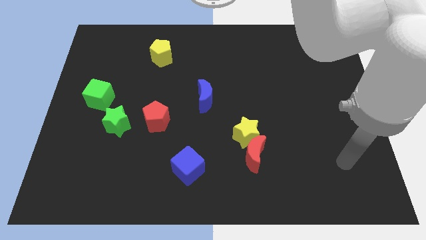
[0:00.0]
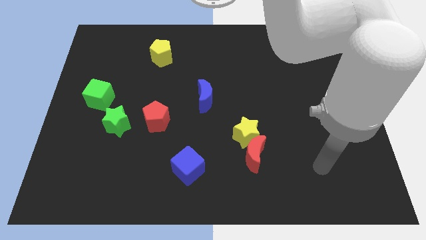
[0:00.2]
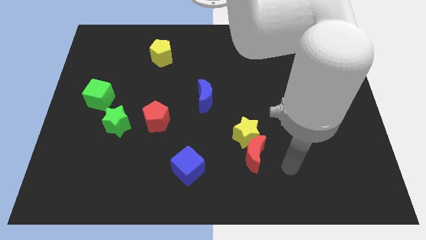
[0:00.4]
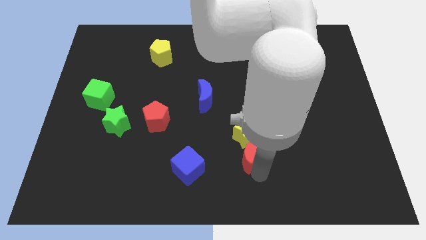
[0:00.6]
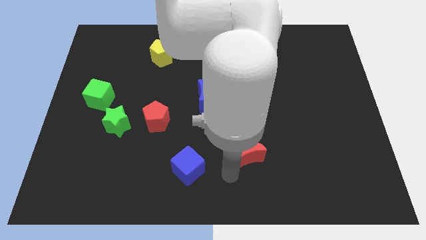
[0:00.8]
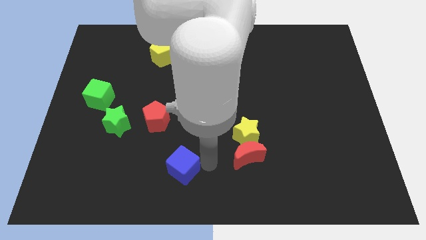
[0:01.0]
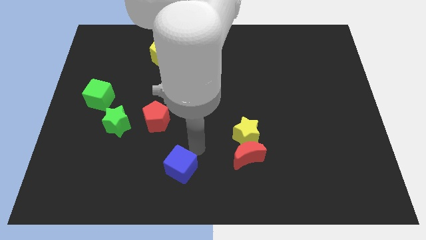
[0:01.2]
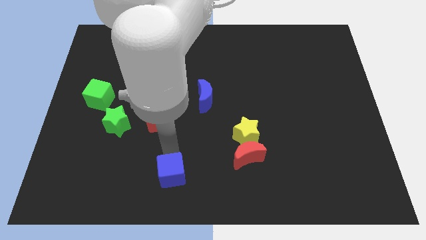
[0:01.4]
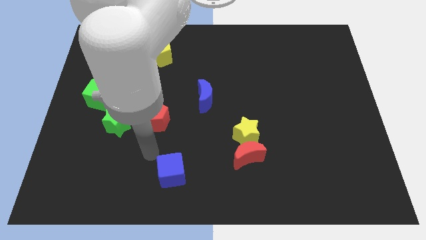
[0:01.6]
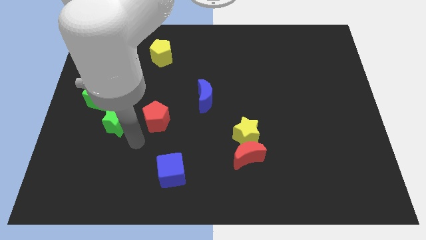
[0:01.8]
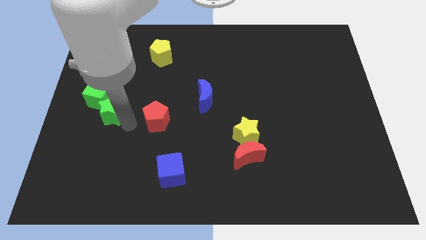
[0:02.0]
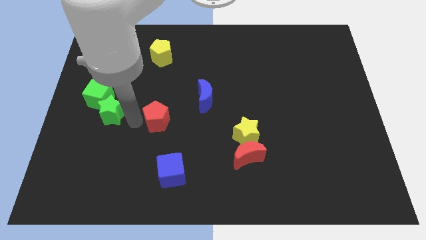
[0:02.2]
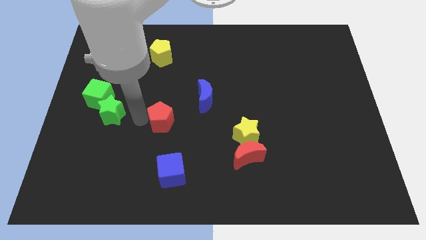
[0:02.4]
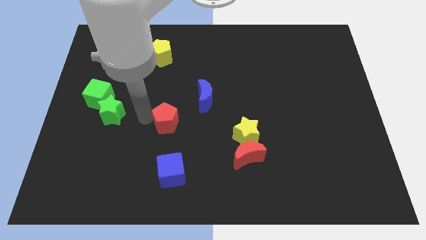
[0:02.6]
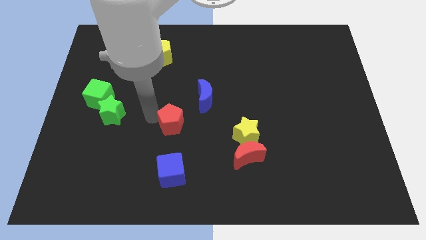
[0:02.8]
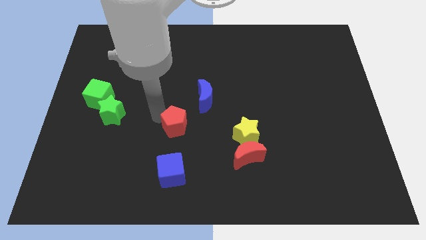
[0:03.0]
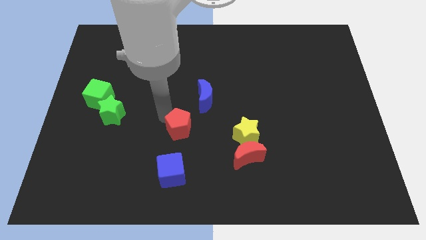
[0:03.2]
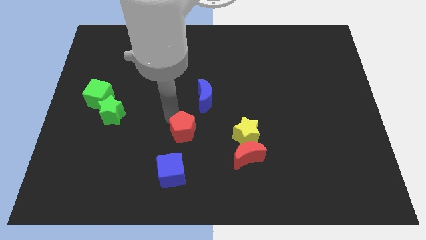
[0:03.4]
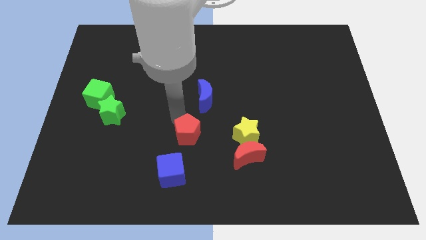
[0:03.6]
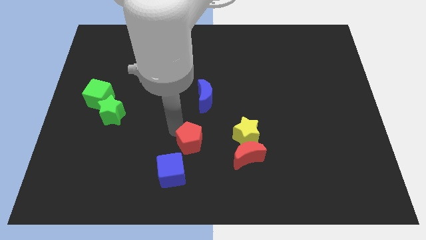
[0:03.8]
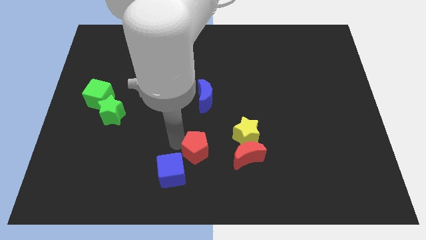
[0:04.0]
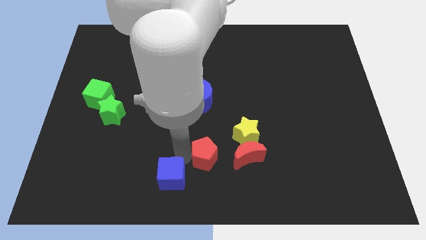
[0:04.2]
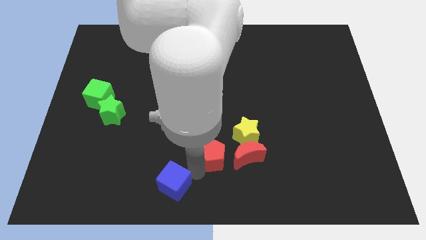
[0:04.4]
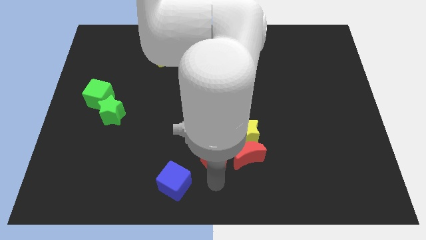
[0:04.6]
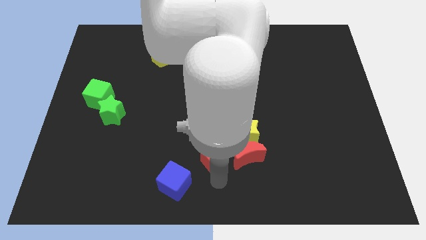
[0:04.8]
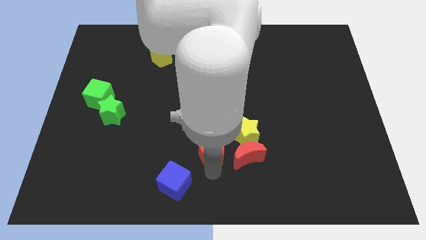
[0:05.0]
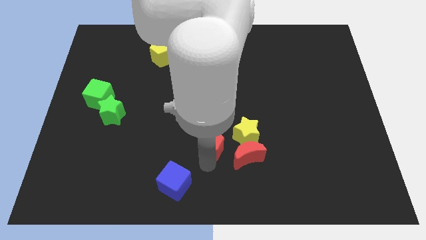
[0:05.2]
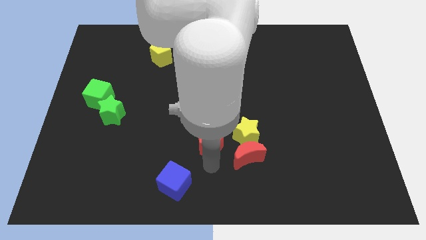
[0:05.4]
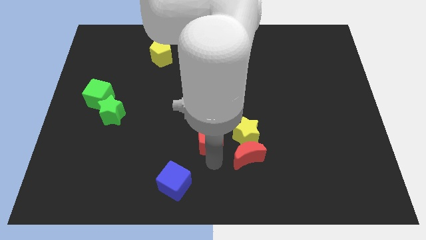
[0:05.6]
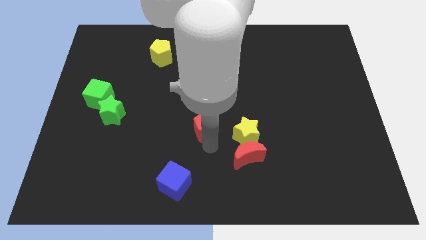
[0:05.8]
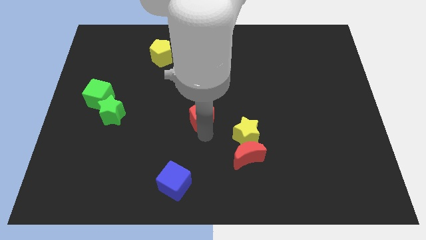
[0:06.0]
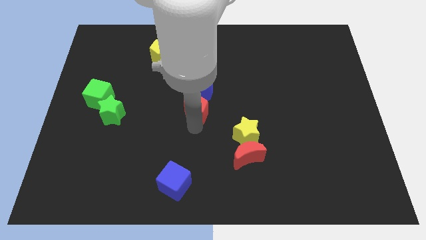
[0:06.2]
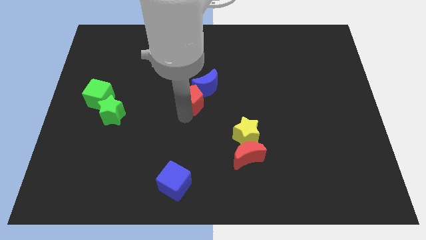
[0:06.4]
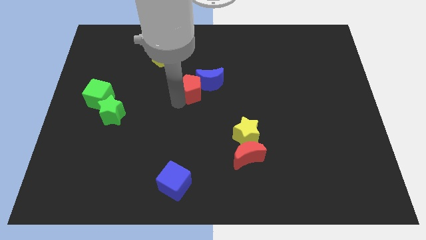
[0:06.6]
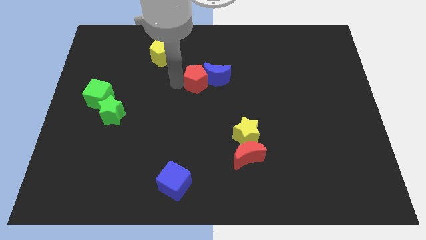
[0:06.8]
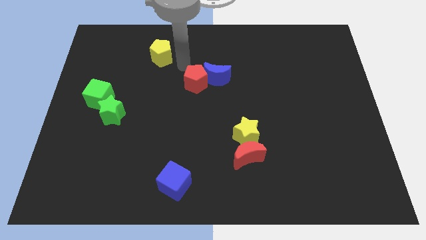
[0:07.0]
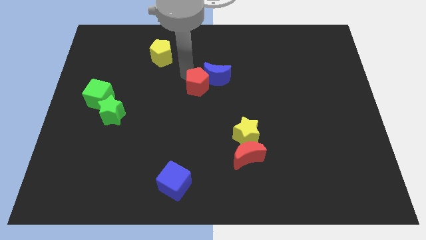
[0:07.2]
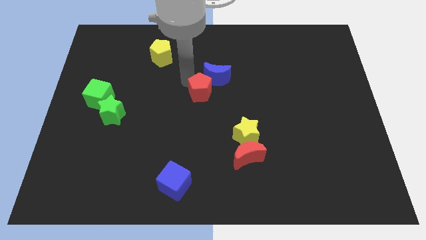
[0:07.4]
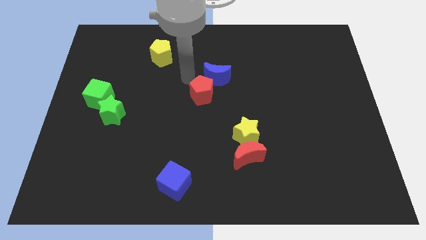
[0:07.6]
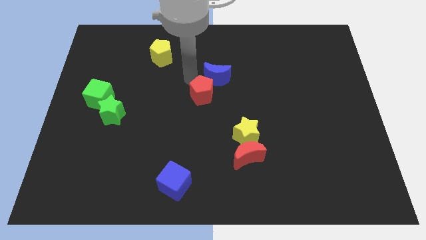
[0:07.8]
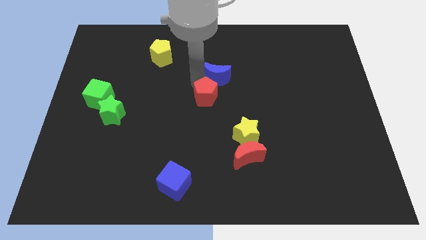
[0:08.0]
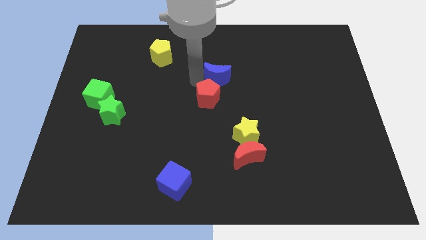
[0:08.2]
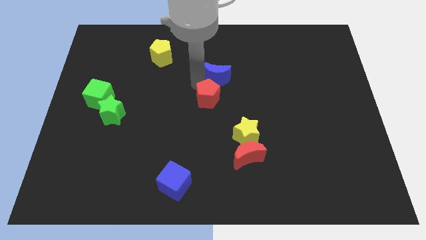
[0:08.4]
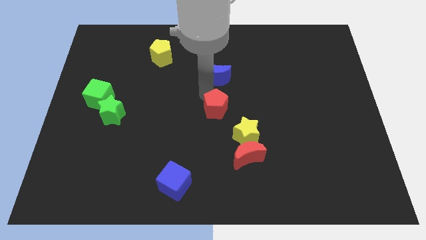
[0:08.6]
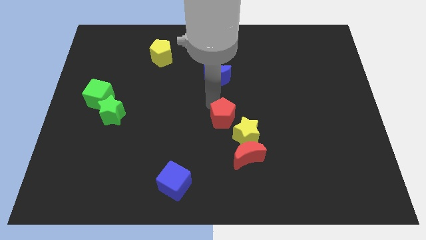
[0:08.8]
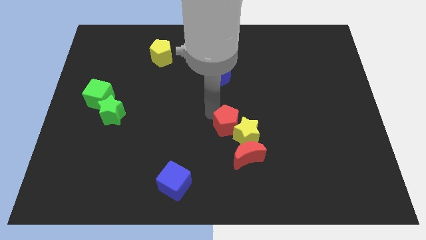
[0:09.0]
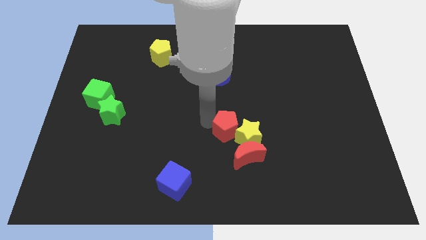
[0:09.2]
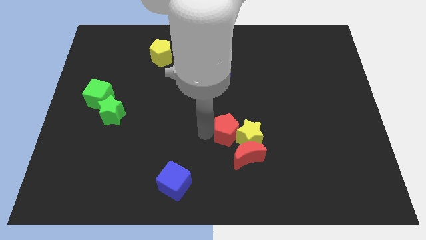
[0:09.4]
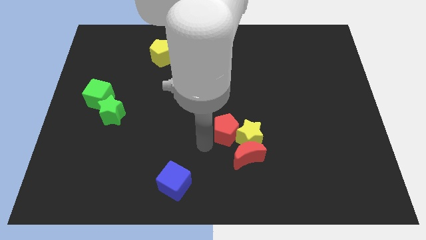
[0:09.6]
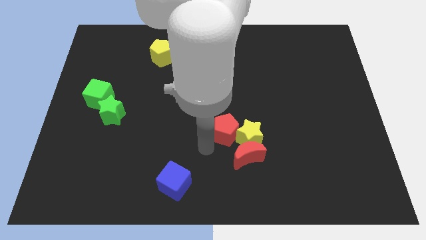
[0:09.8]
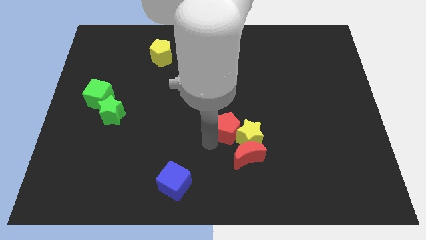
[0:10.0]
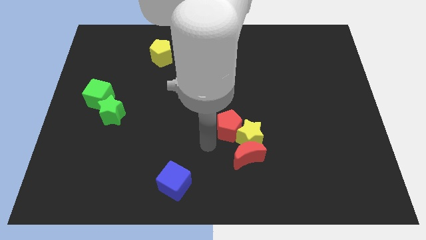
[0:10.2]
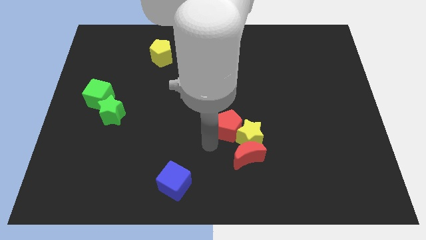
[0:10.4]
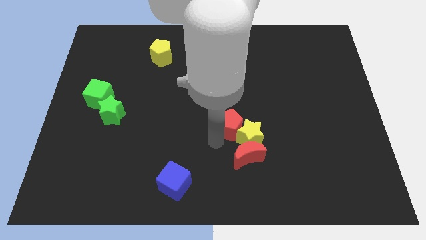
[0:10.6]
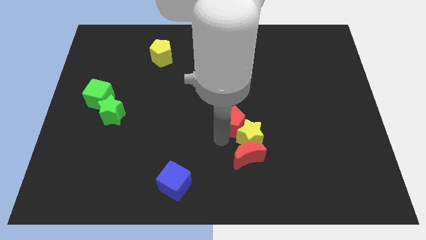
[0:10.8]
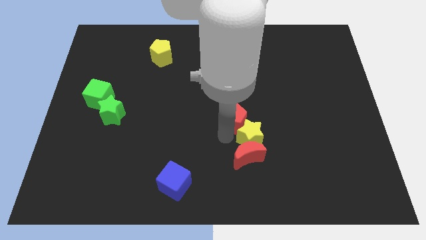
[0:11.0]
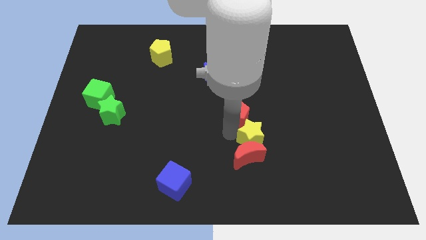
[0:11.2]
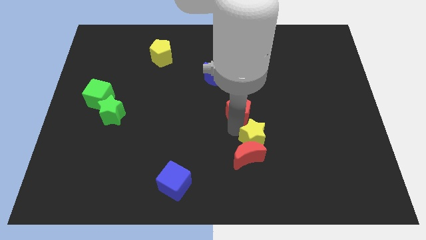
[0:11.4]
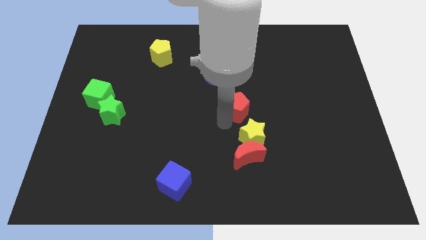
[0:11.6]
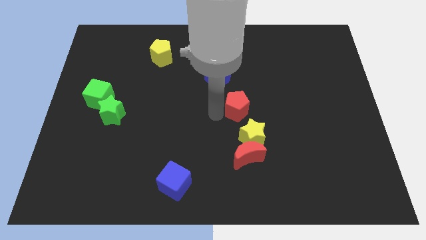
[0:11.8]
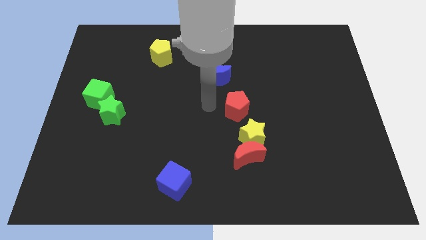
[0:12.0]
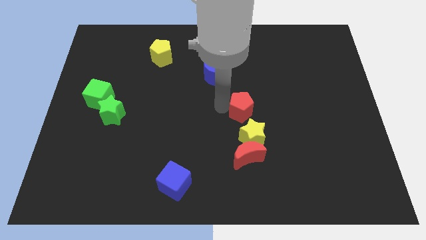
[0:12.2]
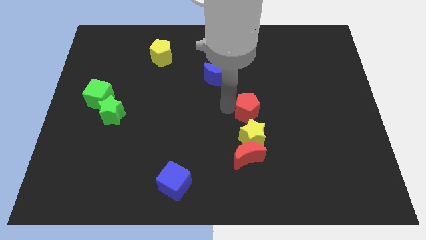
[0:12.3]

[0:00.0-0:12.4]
push the red pentagon right

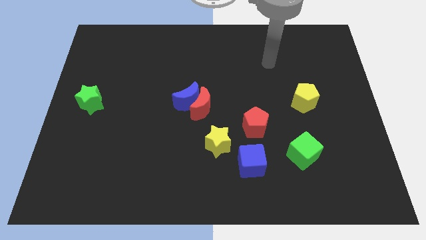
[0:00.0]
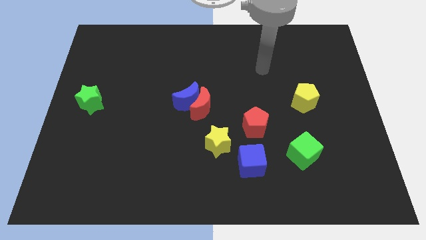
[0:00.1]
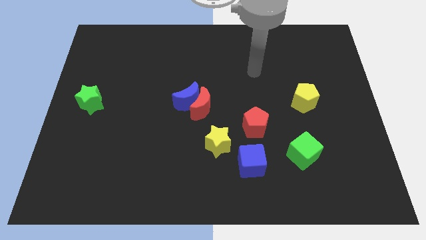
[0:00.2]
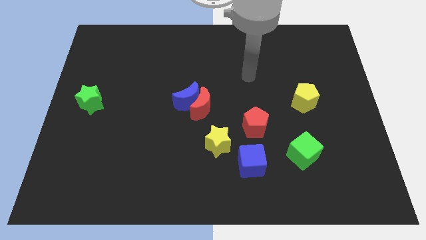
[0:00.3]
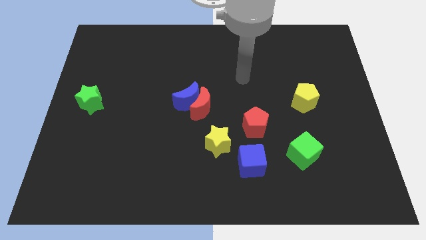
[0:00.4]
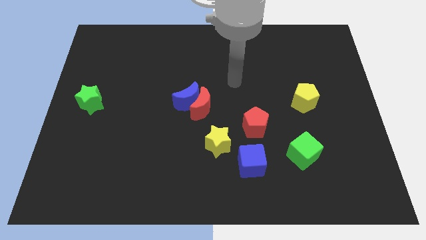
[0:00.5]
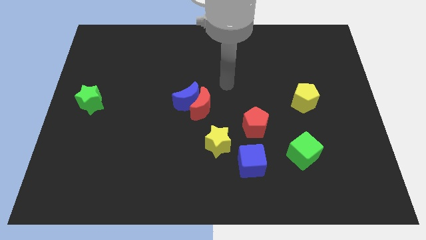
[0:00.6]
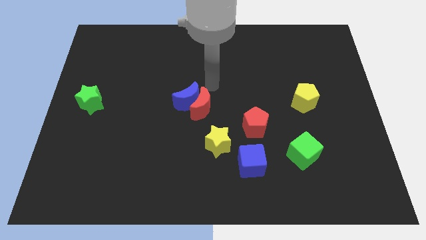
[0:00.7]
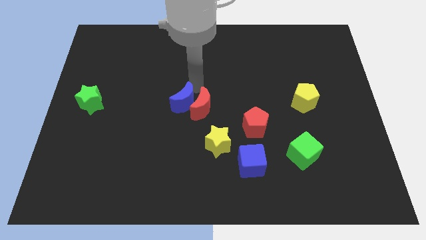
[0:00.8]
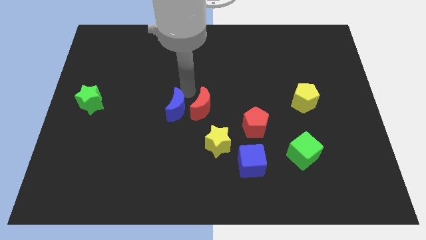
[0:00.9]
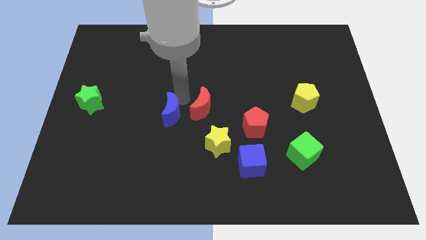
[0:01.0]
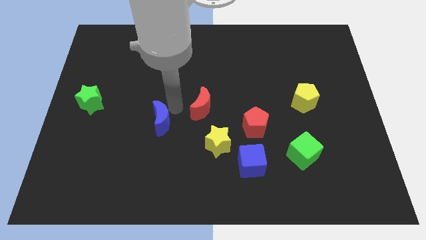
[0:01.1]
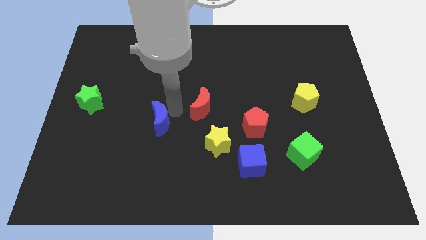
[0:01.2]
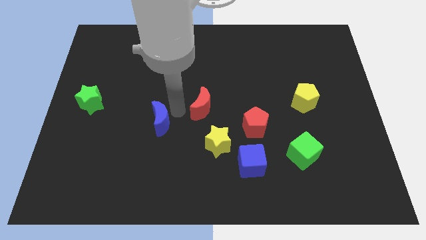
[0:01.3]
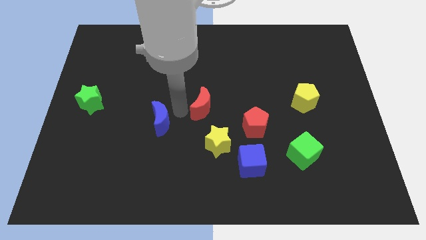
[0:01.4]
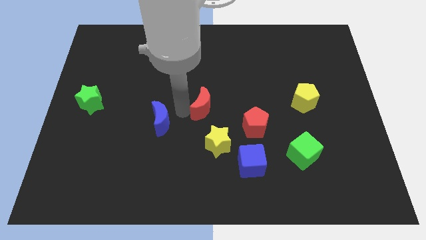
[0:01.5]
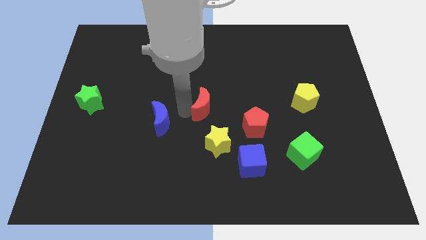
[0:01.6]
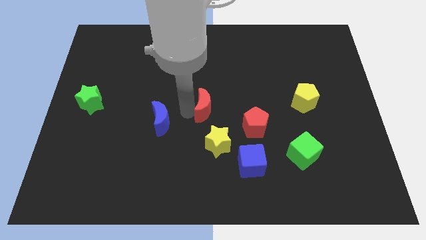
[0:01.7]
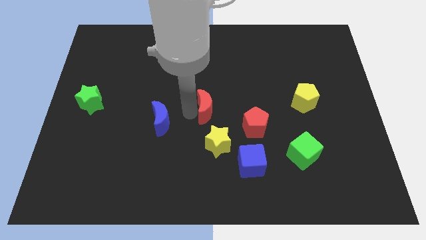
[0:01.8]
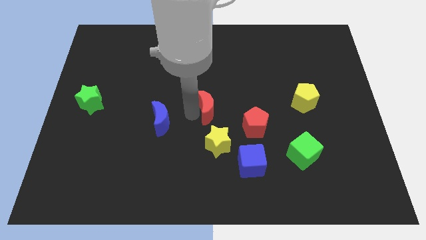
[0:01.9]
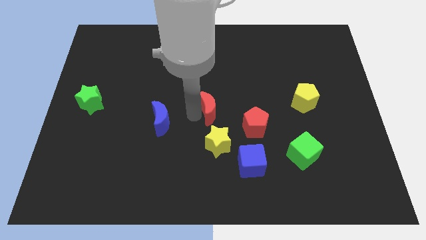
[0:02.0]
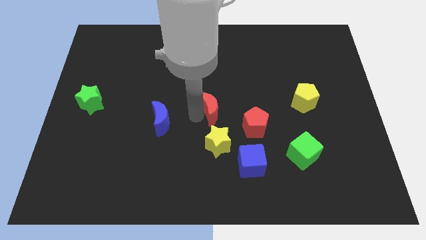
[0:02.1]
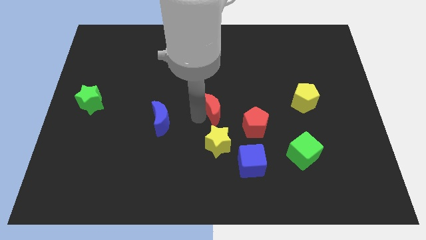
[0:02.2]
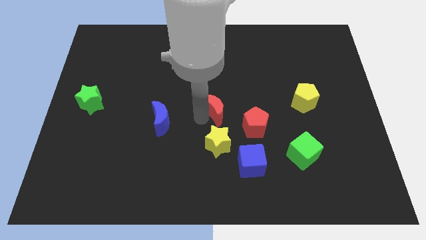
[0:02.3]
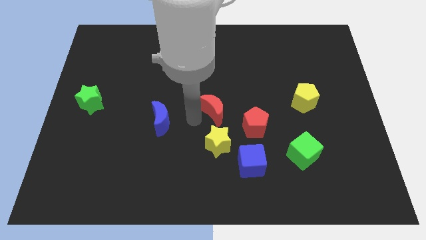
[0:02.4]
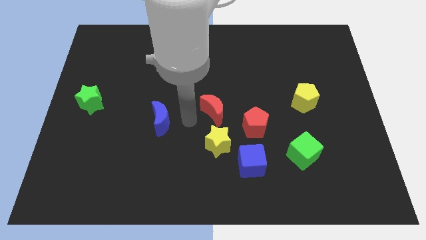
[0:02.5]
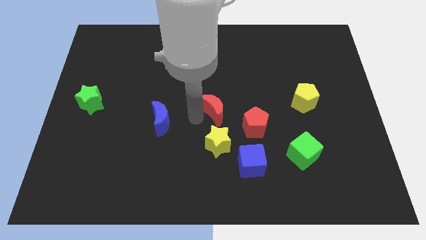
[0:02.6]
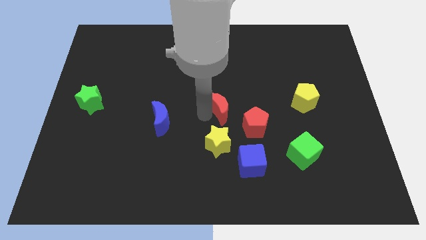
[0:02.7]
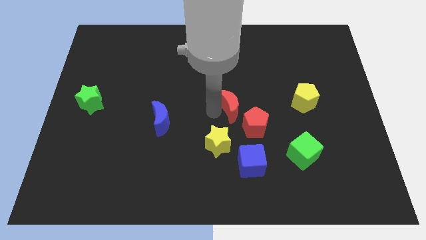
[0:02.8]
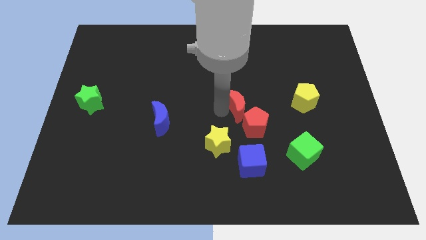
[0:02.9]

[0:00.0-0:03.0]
push the red moon slightly right
